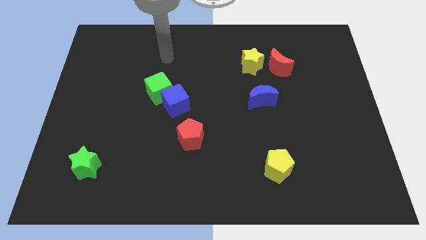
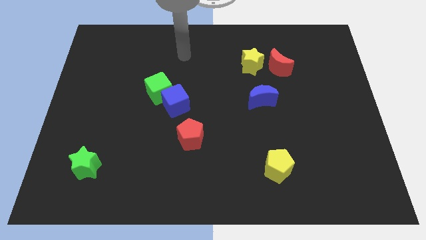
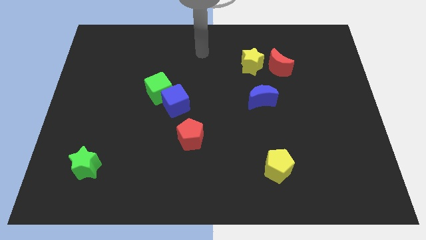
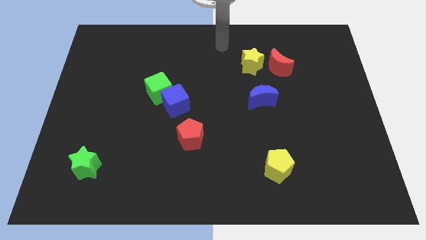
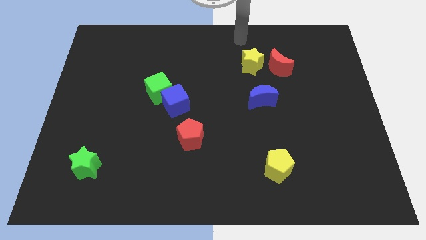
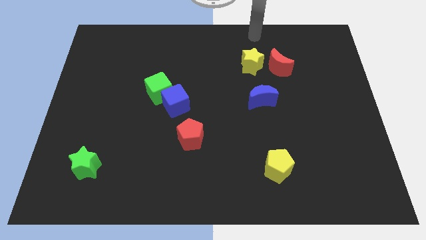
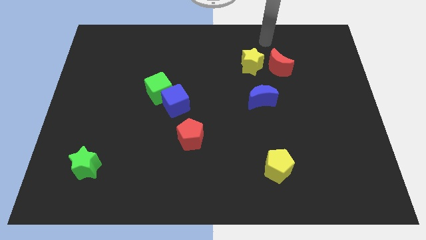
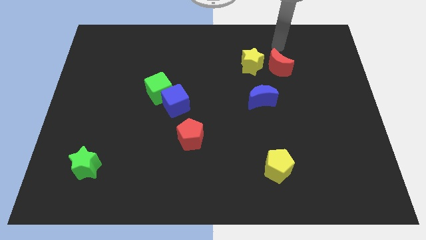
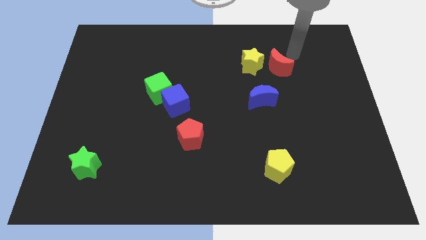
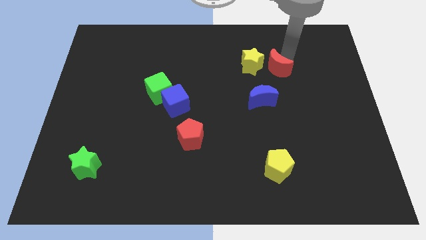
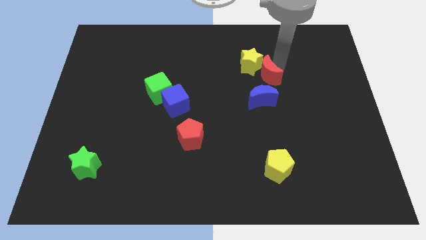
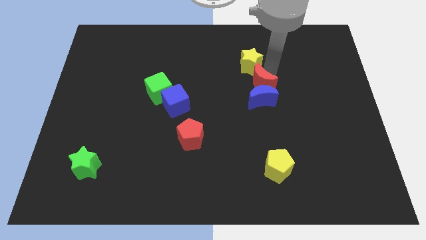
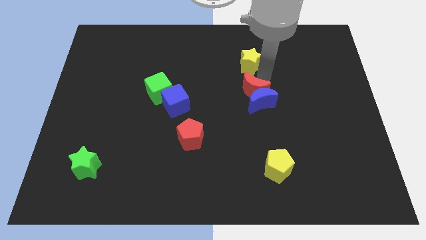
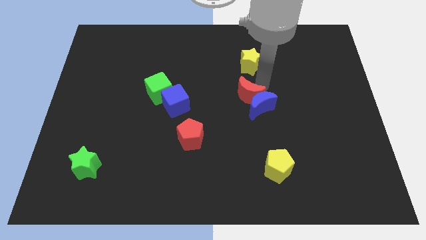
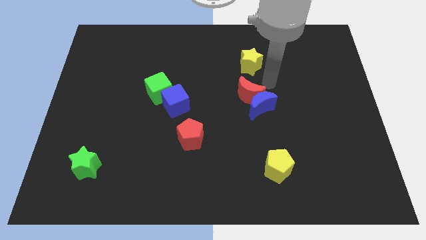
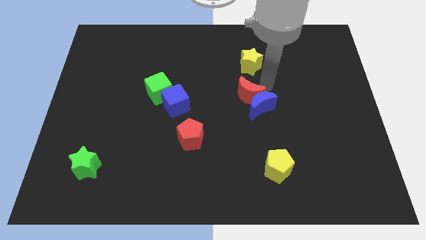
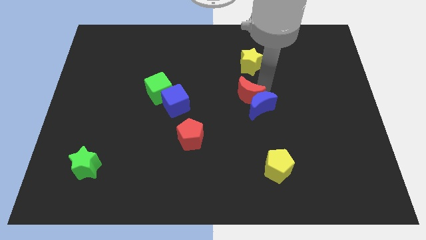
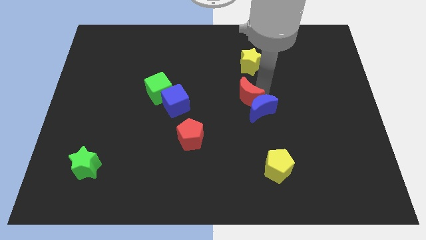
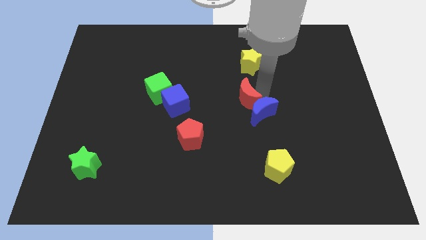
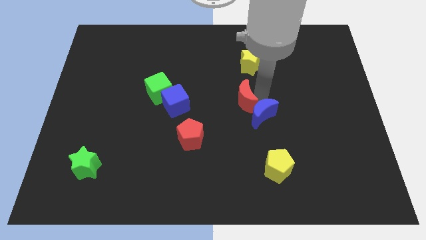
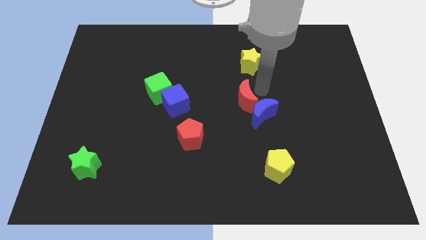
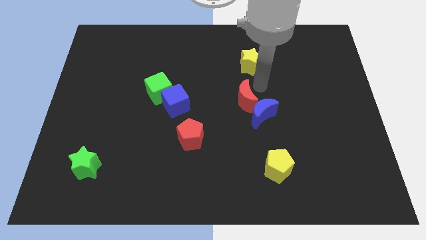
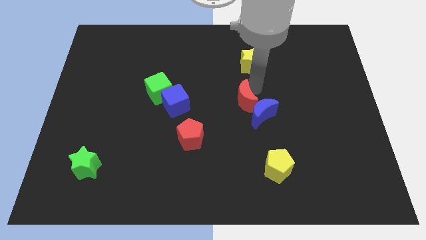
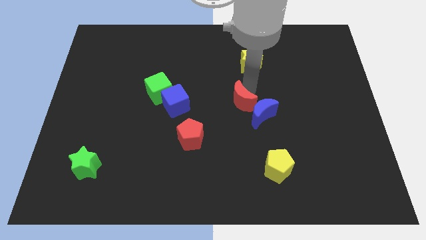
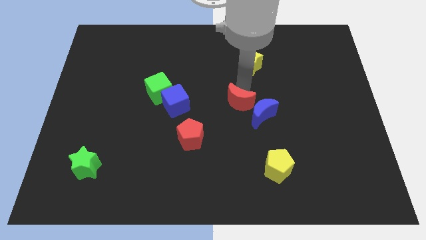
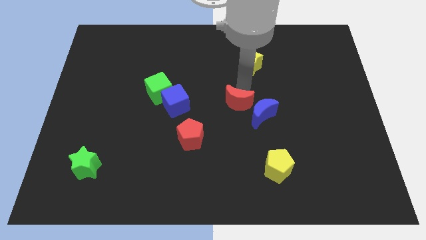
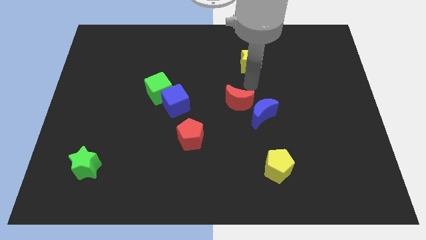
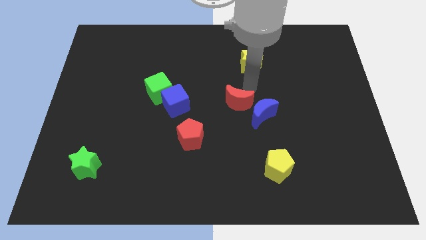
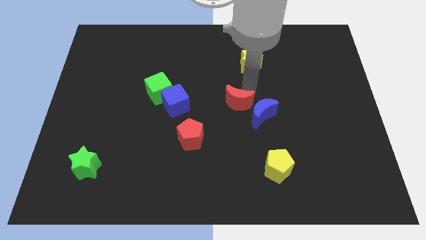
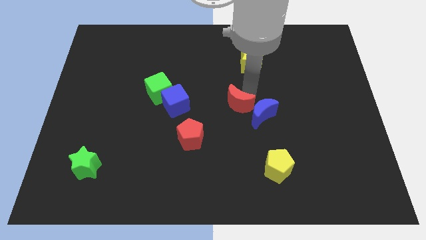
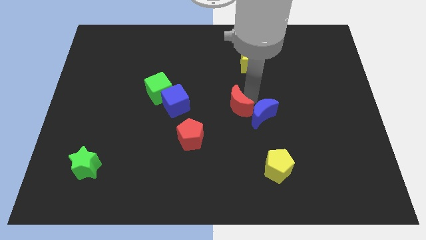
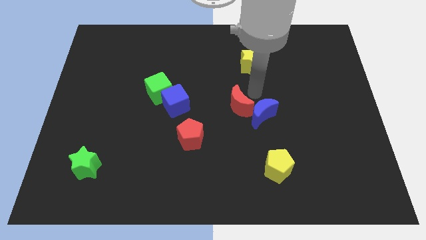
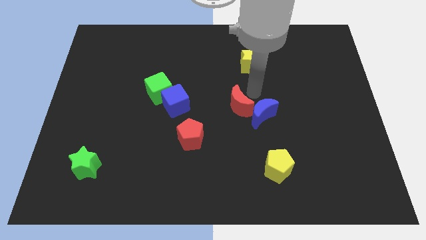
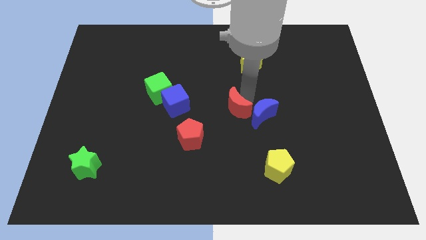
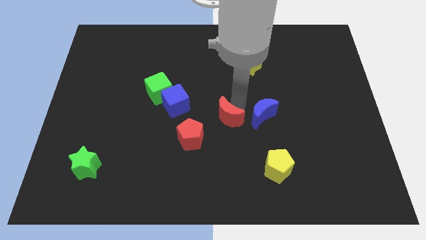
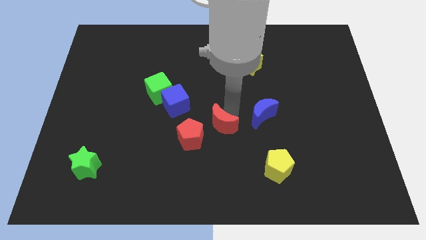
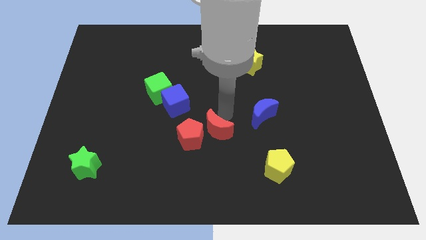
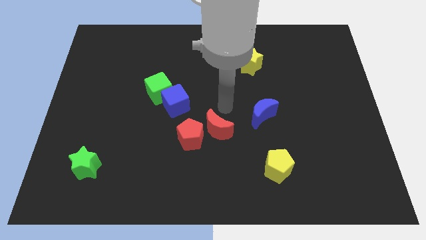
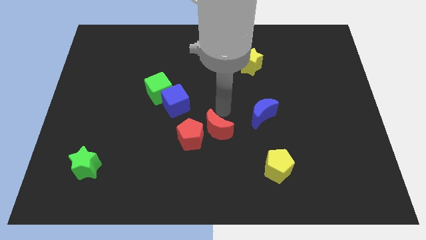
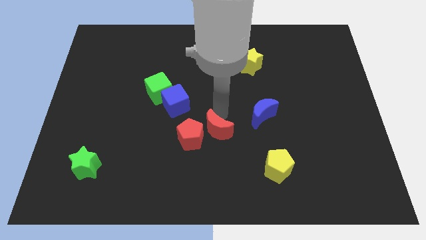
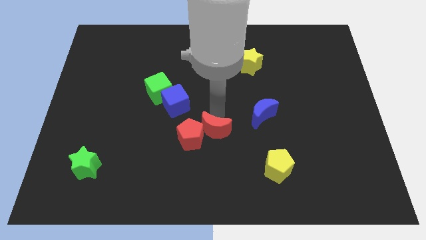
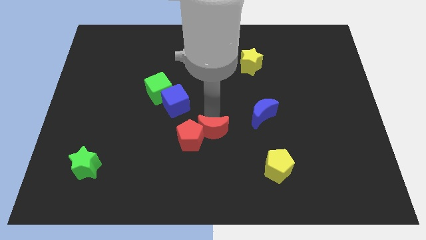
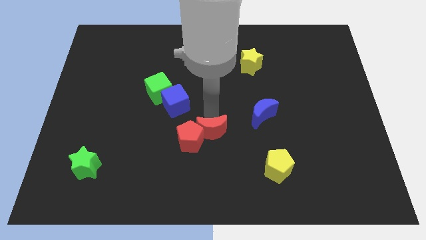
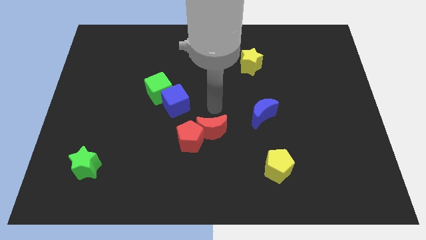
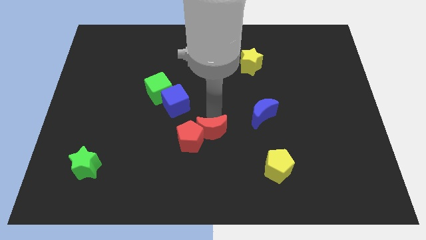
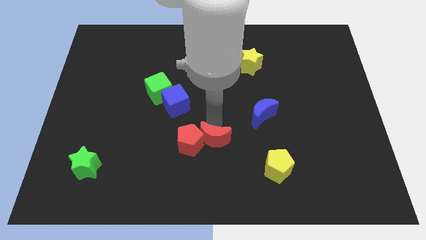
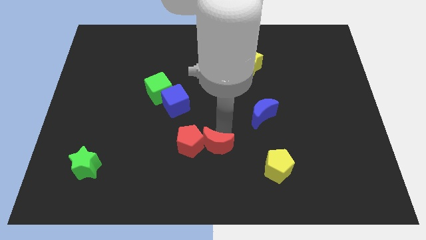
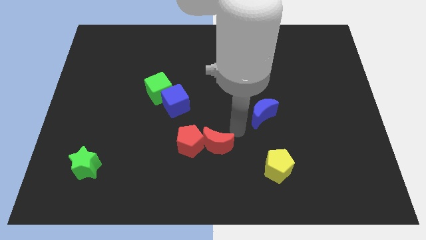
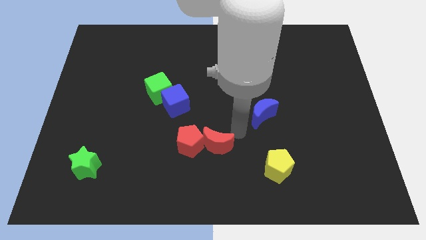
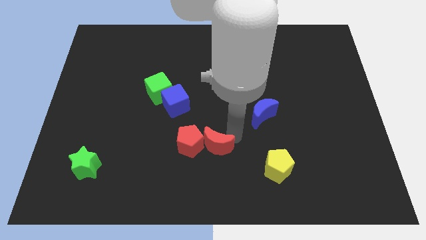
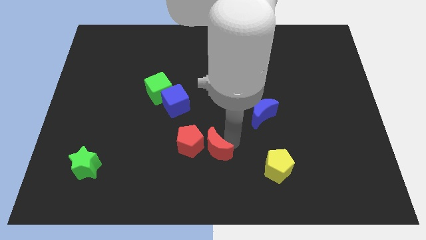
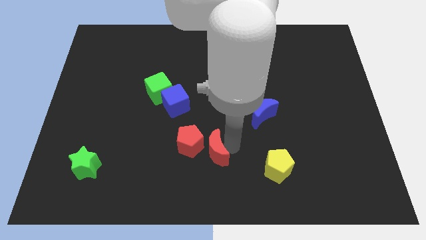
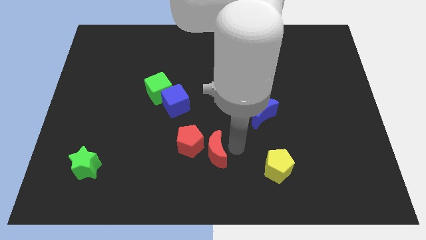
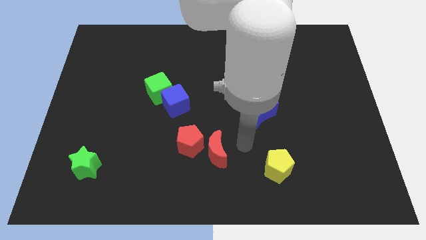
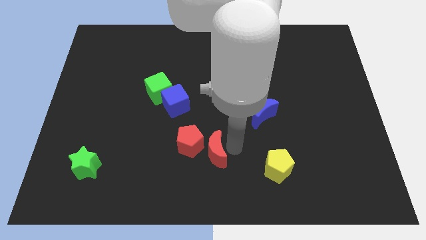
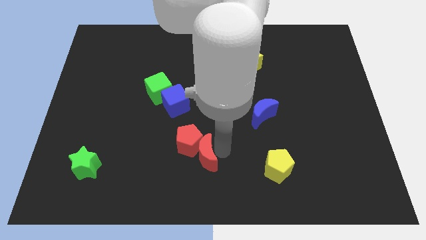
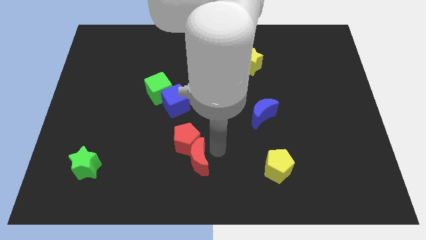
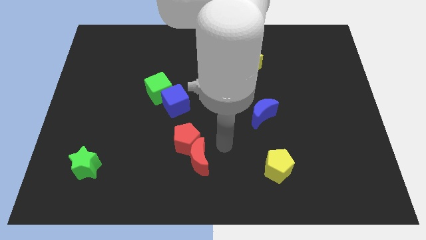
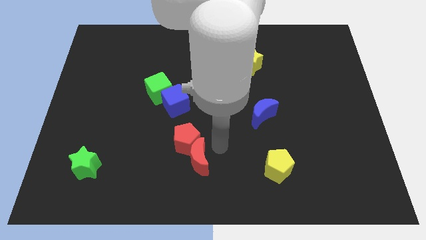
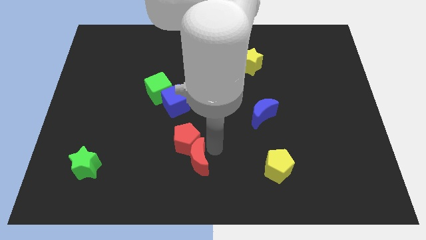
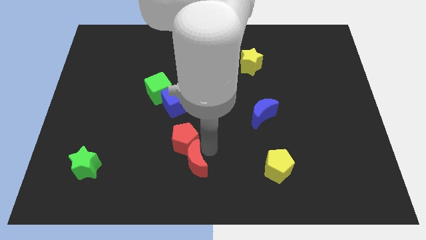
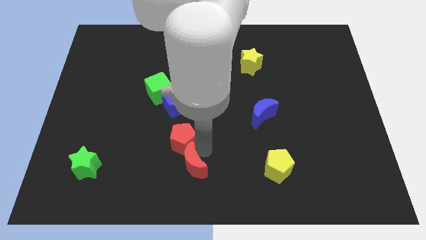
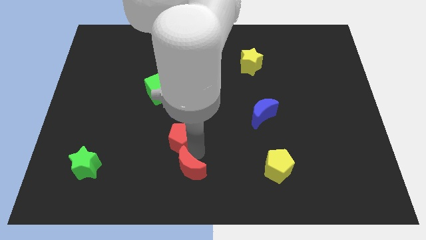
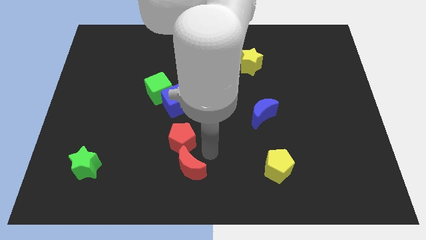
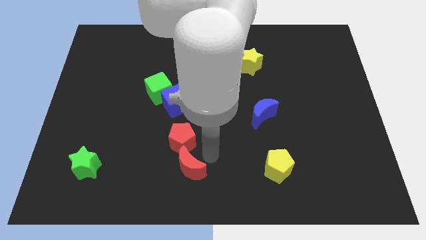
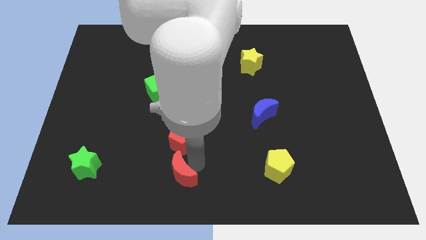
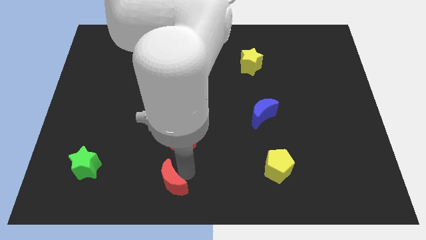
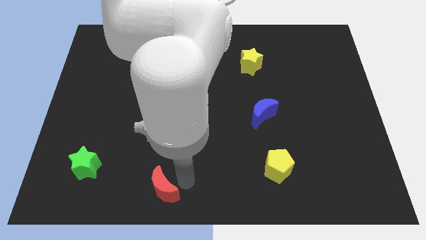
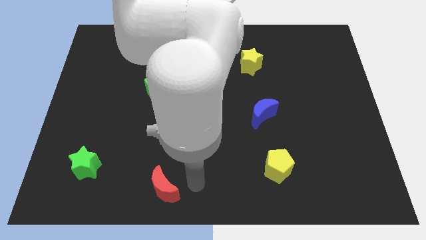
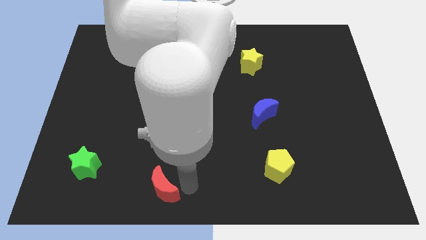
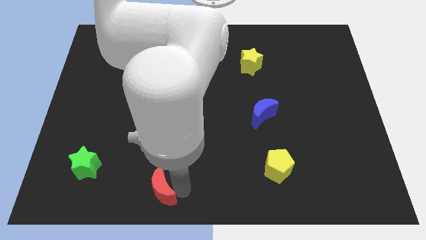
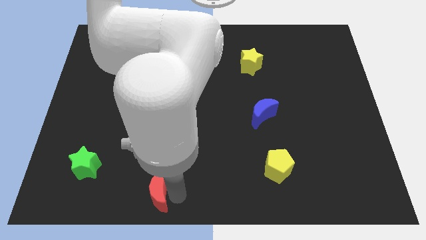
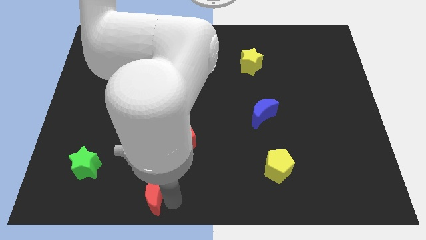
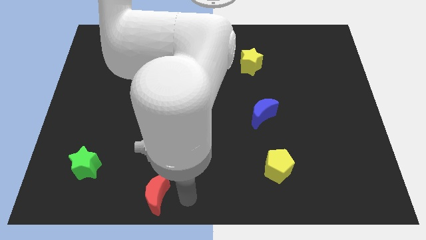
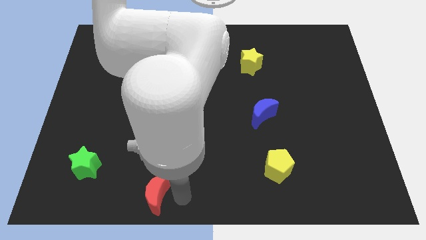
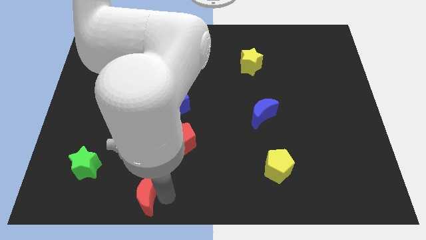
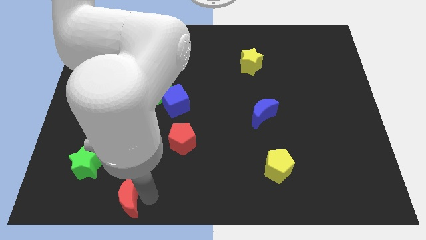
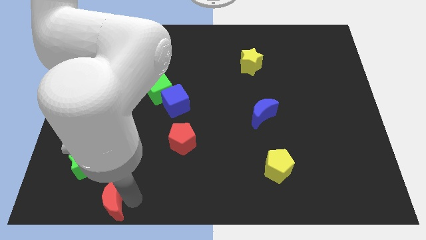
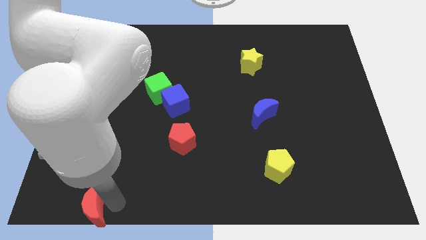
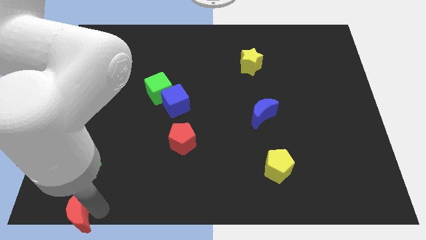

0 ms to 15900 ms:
slide the red moon to the lower left corner
